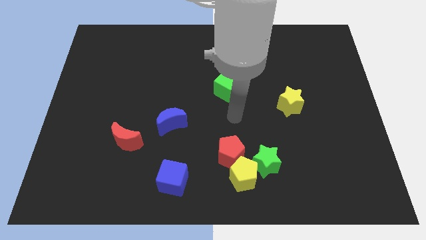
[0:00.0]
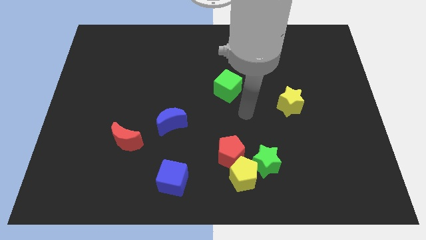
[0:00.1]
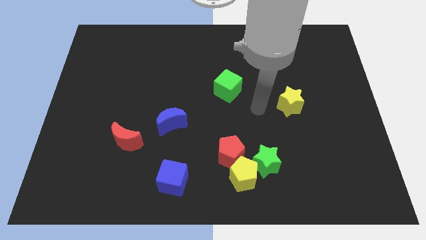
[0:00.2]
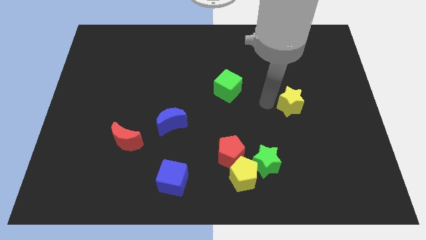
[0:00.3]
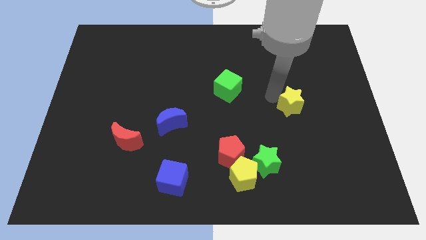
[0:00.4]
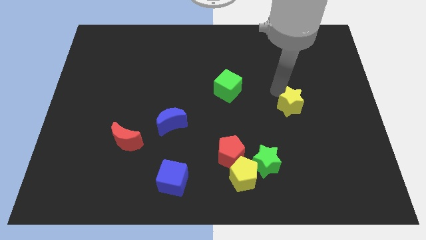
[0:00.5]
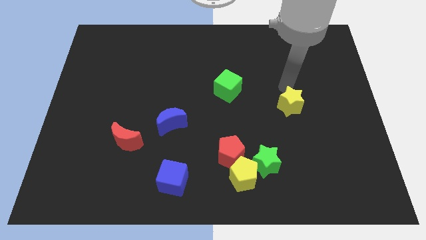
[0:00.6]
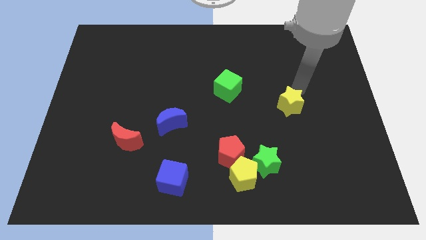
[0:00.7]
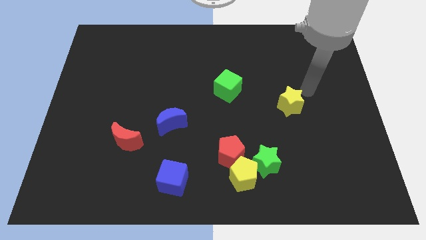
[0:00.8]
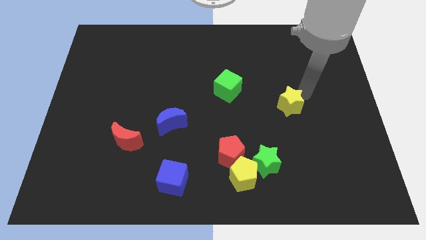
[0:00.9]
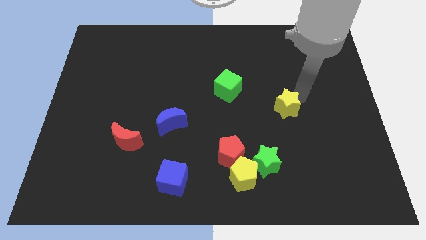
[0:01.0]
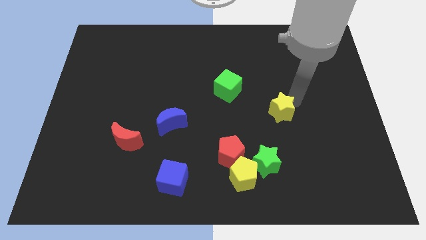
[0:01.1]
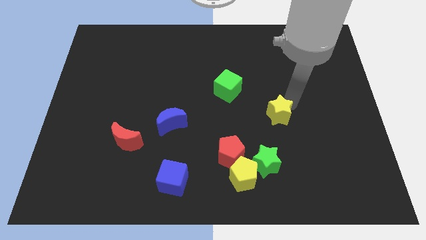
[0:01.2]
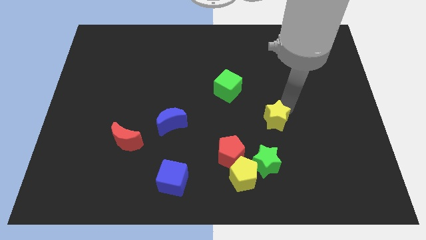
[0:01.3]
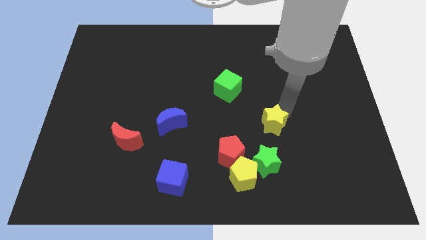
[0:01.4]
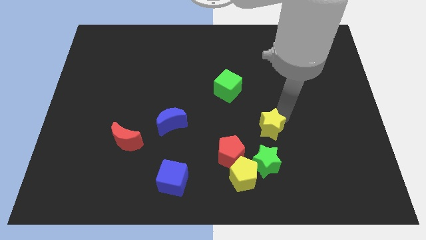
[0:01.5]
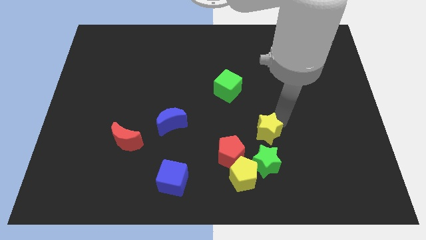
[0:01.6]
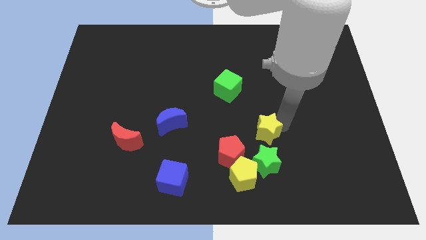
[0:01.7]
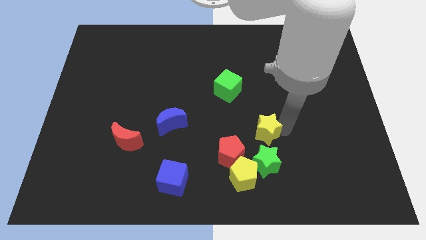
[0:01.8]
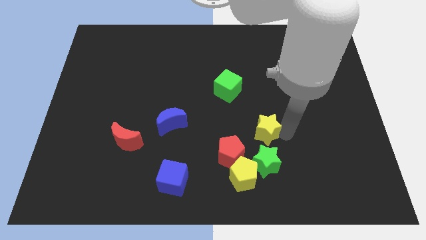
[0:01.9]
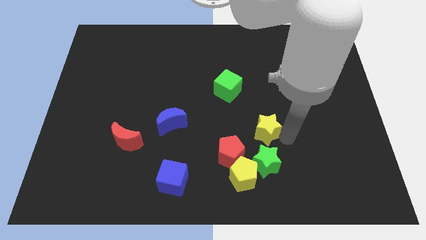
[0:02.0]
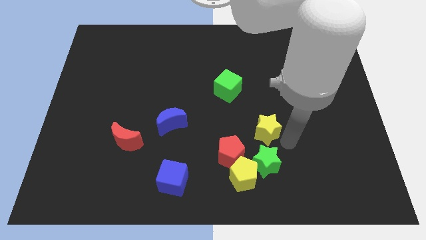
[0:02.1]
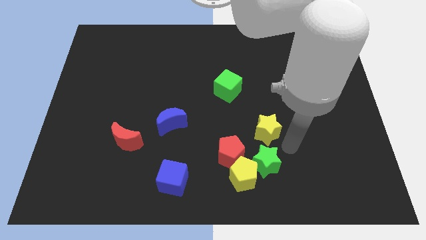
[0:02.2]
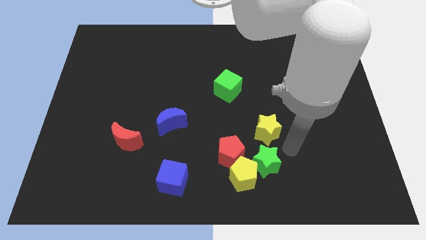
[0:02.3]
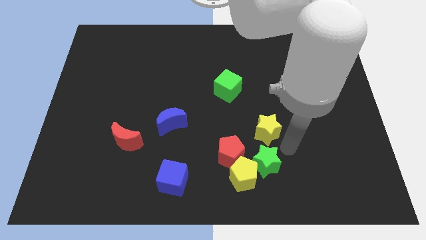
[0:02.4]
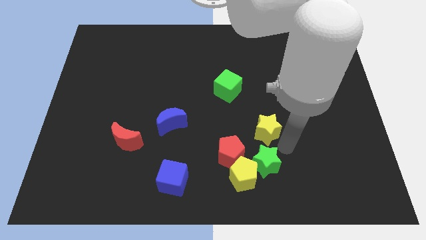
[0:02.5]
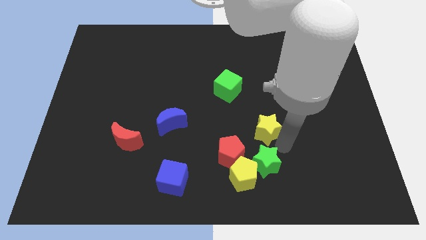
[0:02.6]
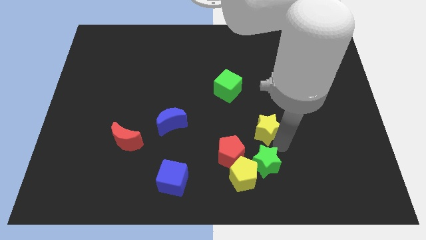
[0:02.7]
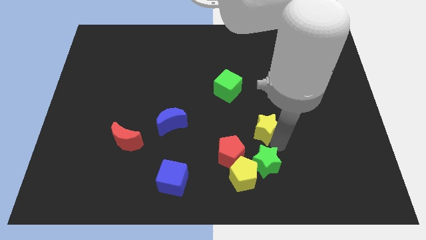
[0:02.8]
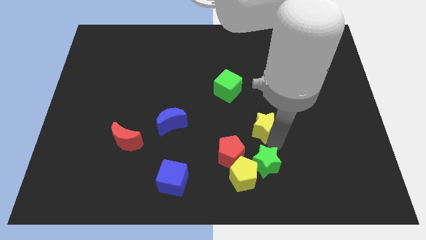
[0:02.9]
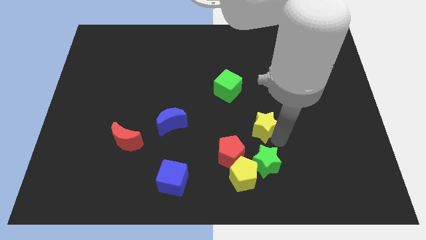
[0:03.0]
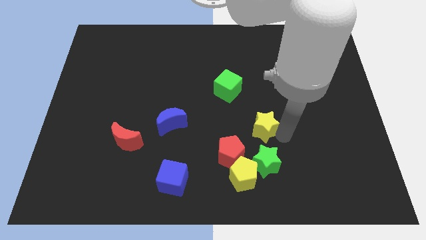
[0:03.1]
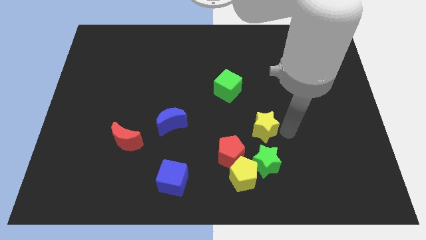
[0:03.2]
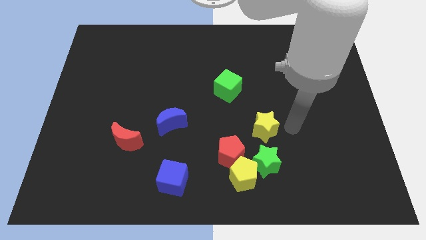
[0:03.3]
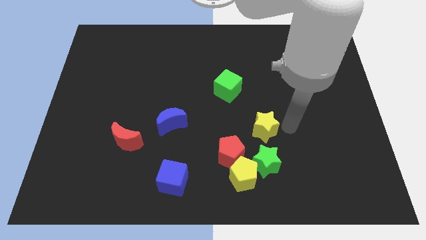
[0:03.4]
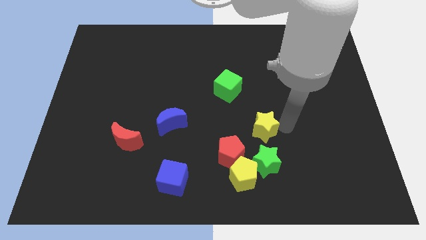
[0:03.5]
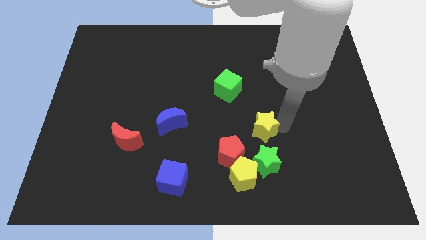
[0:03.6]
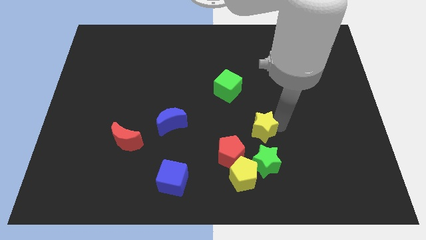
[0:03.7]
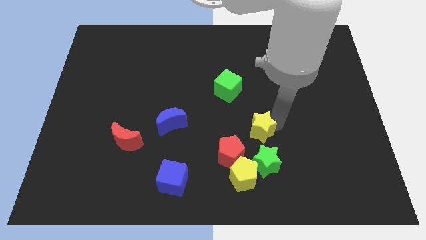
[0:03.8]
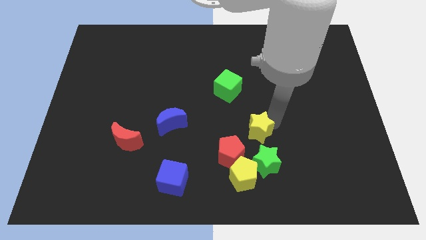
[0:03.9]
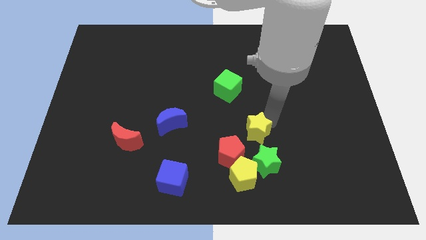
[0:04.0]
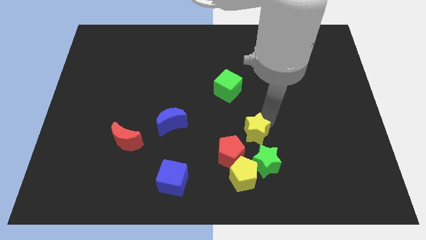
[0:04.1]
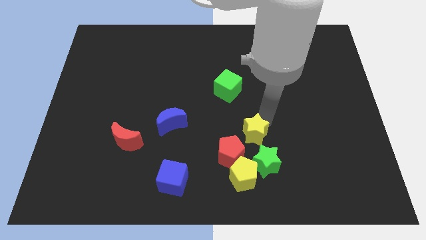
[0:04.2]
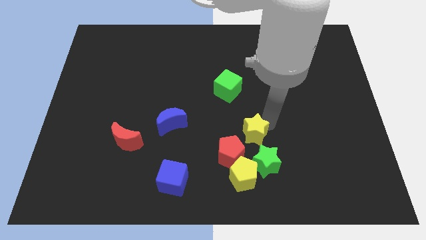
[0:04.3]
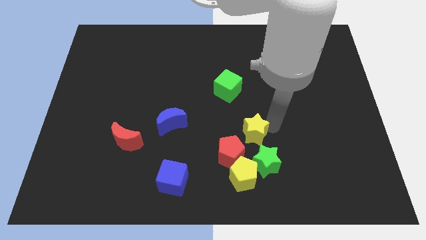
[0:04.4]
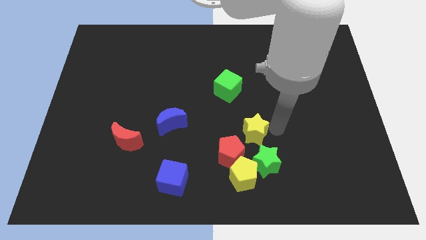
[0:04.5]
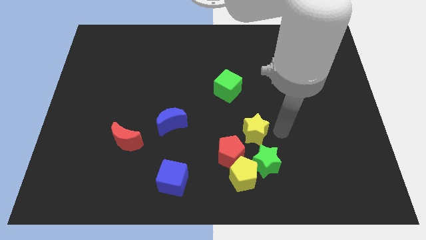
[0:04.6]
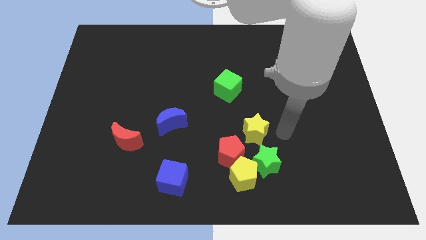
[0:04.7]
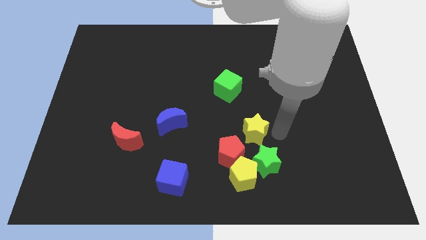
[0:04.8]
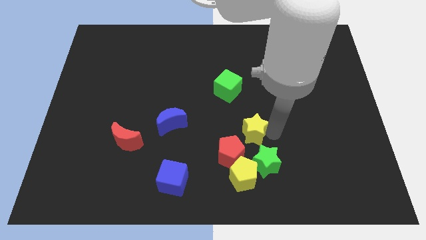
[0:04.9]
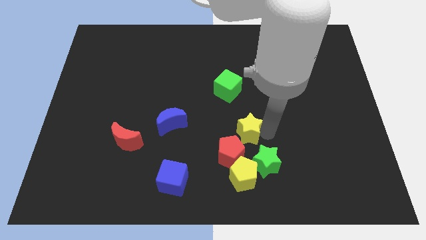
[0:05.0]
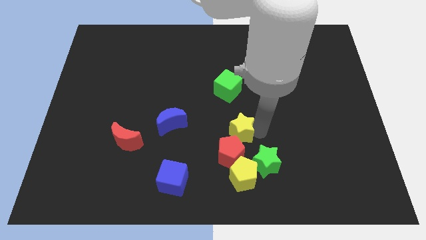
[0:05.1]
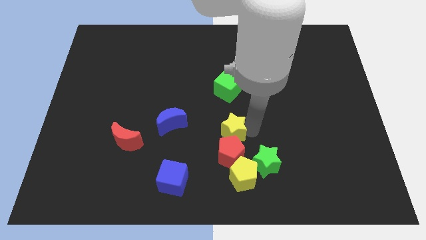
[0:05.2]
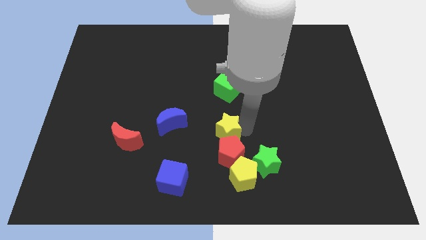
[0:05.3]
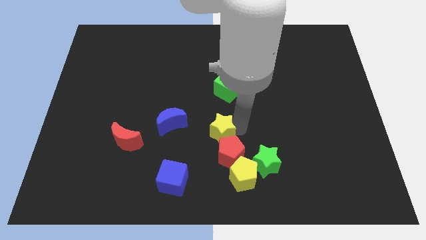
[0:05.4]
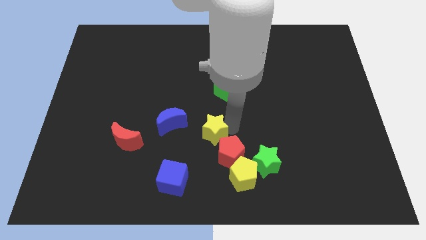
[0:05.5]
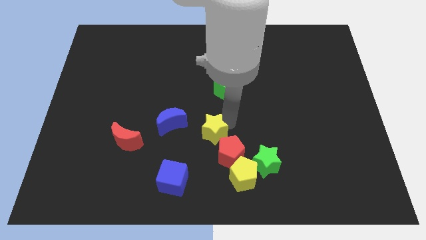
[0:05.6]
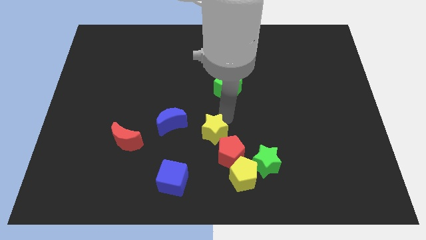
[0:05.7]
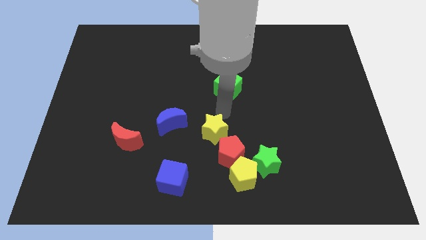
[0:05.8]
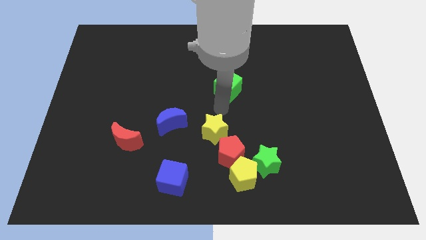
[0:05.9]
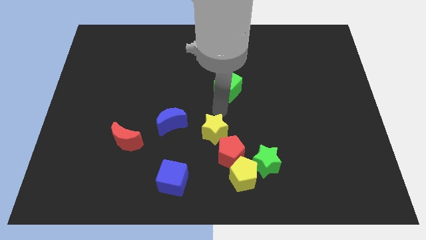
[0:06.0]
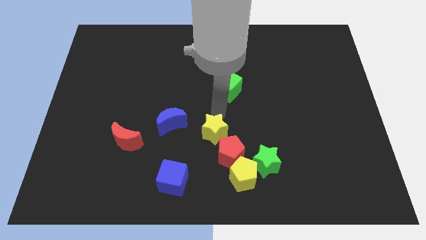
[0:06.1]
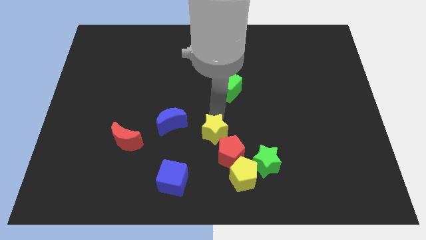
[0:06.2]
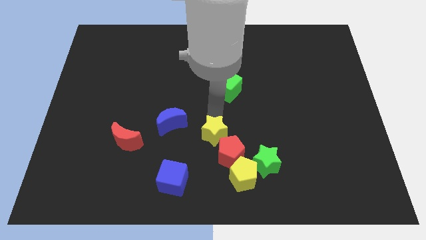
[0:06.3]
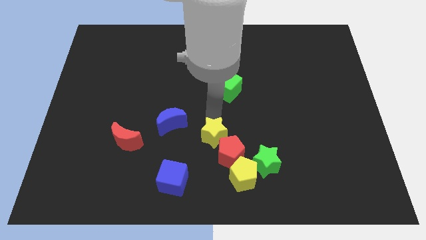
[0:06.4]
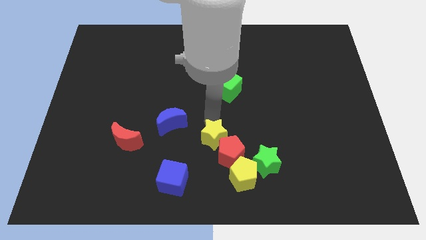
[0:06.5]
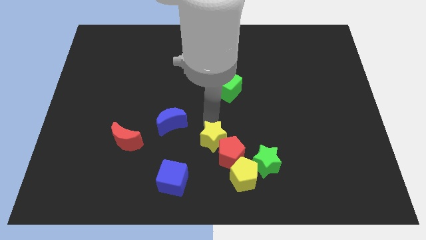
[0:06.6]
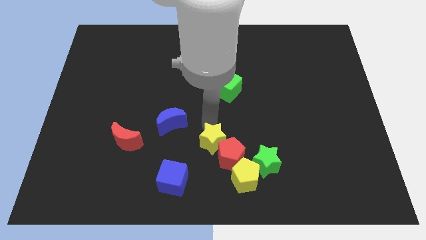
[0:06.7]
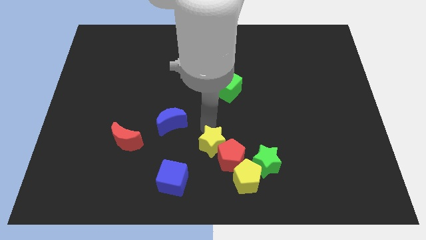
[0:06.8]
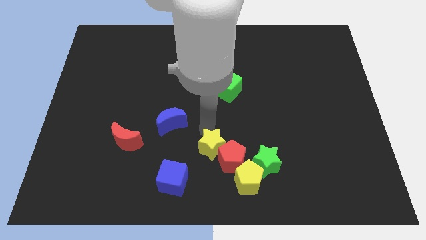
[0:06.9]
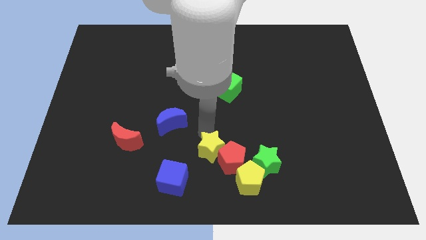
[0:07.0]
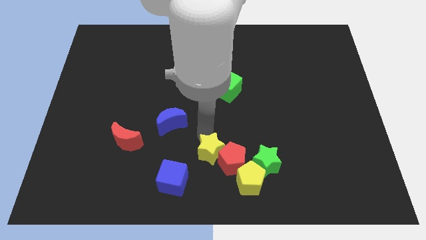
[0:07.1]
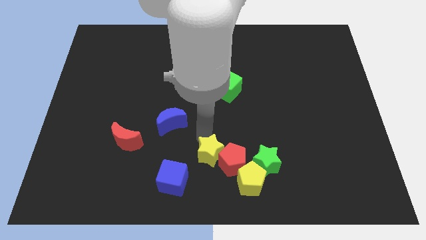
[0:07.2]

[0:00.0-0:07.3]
slide the yellow star to the bottom
